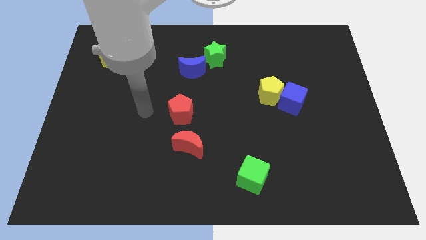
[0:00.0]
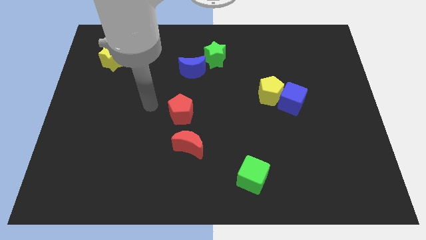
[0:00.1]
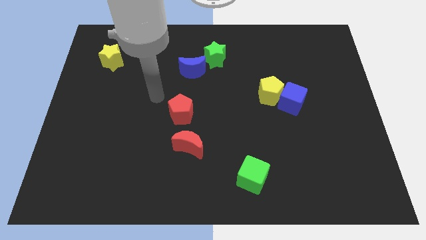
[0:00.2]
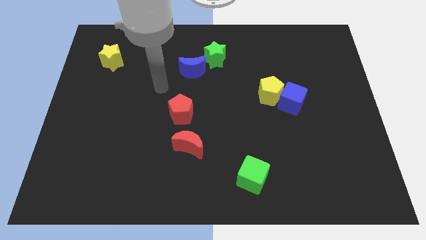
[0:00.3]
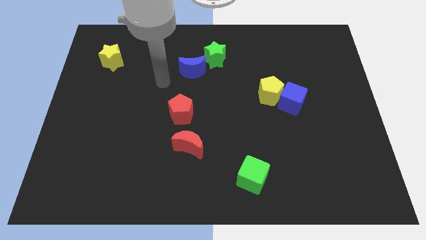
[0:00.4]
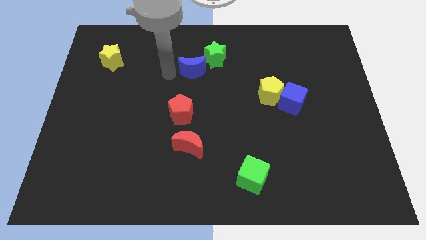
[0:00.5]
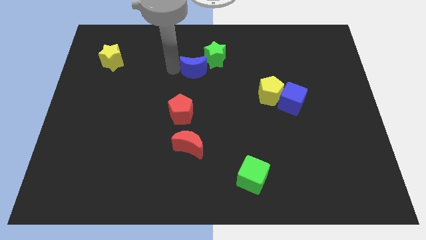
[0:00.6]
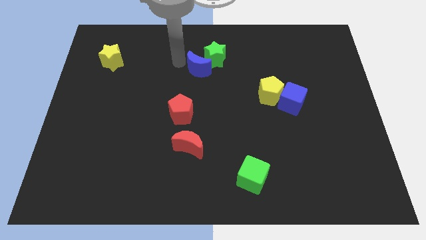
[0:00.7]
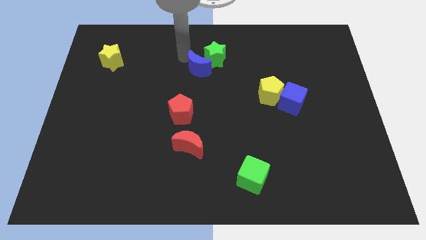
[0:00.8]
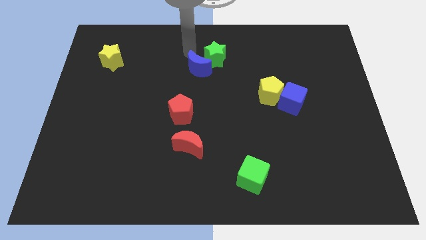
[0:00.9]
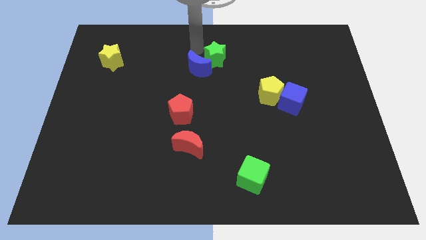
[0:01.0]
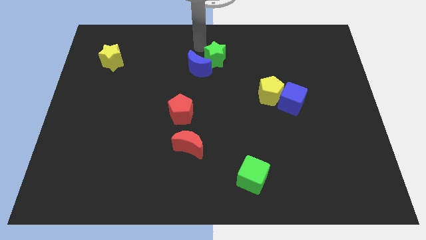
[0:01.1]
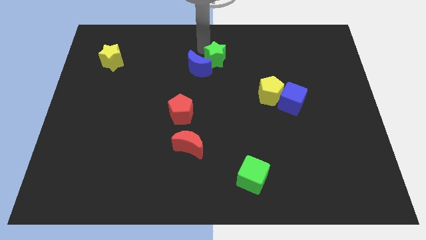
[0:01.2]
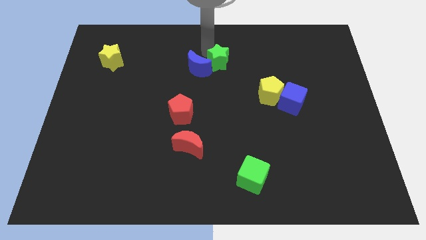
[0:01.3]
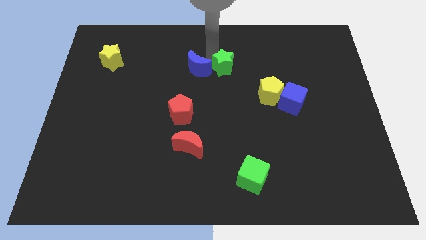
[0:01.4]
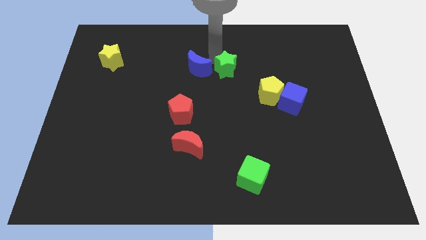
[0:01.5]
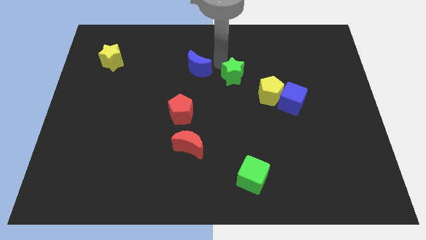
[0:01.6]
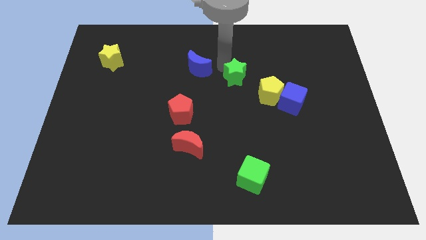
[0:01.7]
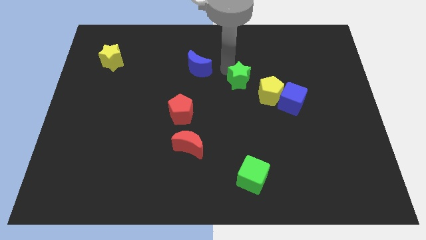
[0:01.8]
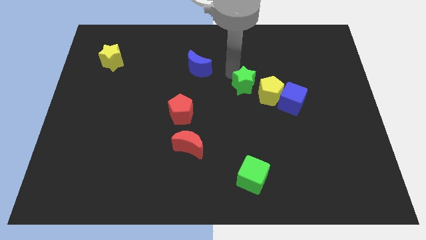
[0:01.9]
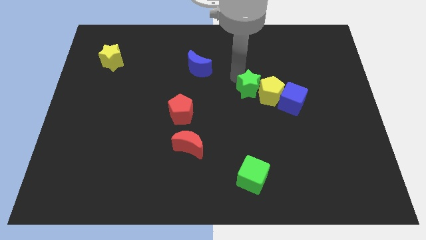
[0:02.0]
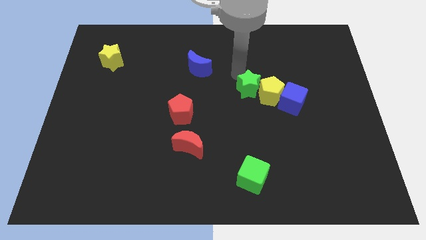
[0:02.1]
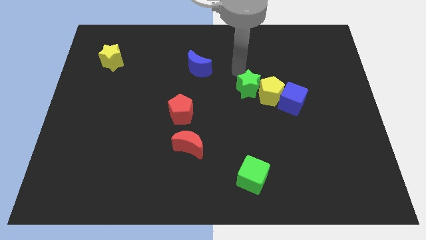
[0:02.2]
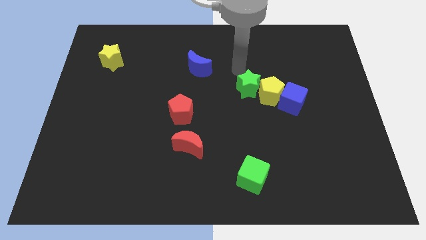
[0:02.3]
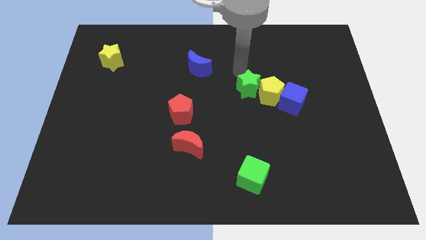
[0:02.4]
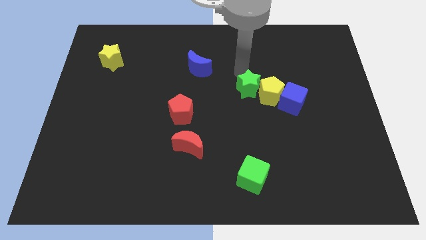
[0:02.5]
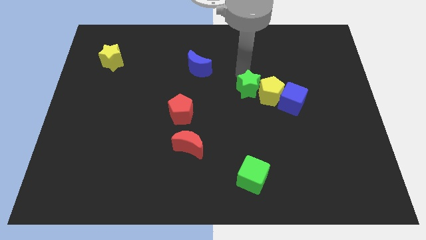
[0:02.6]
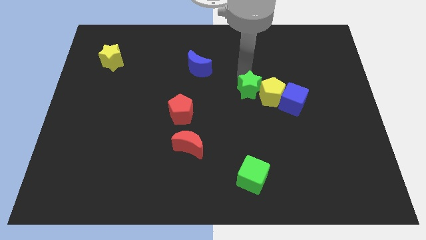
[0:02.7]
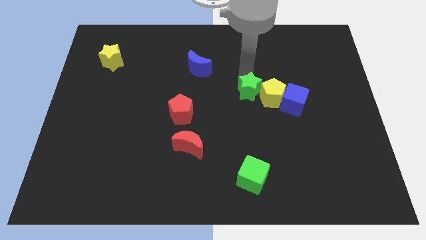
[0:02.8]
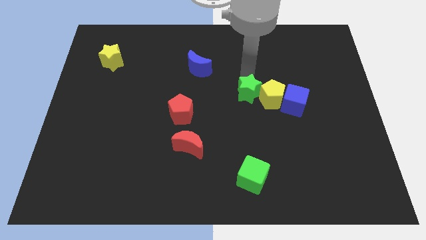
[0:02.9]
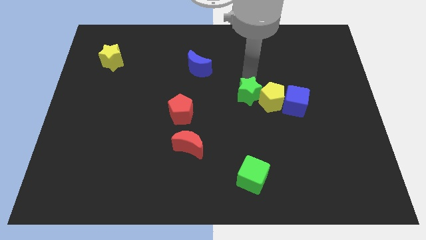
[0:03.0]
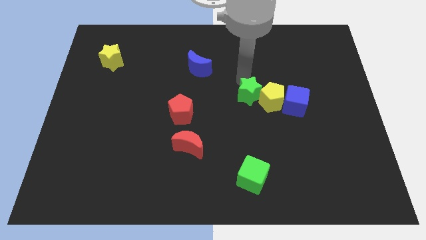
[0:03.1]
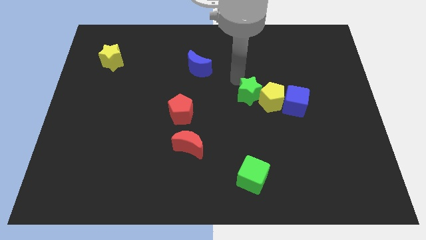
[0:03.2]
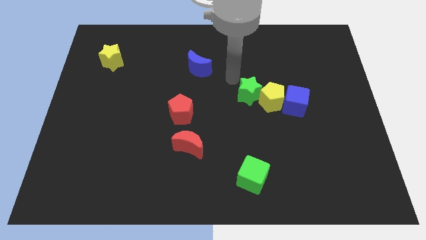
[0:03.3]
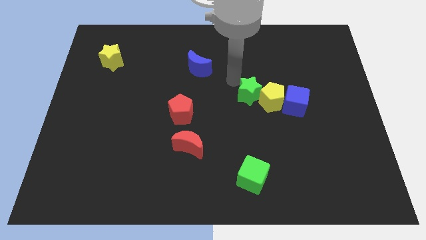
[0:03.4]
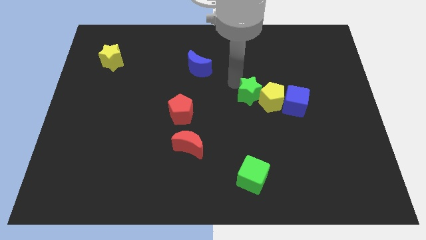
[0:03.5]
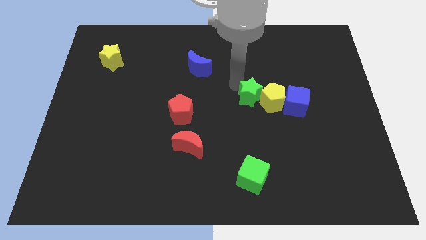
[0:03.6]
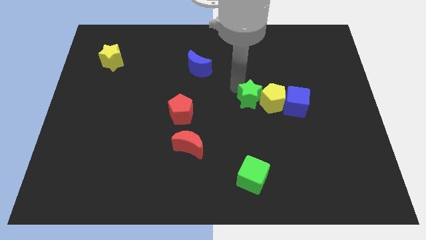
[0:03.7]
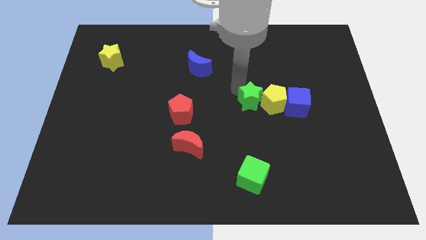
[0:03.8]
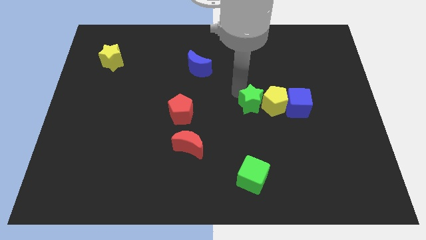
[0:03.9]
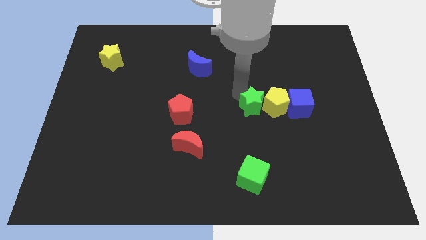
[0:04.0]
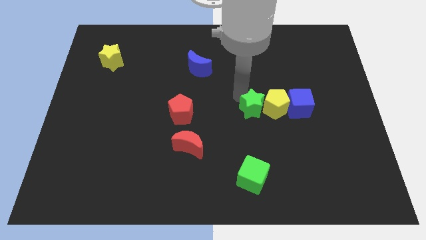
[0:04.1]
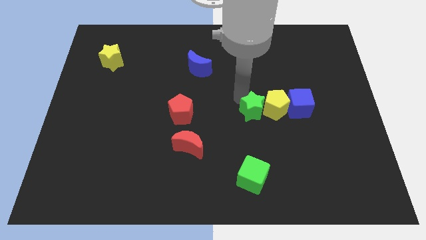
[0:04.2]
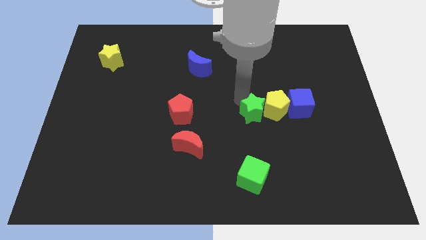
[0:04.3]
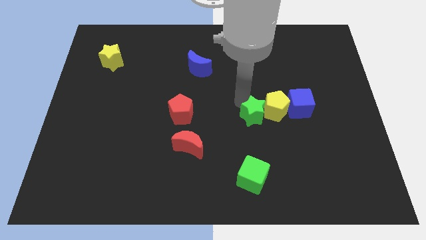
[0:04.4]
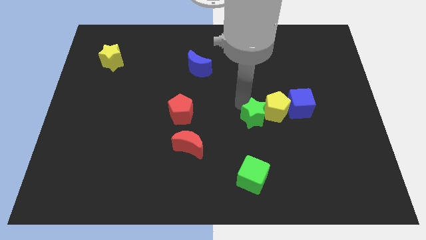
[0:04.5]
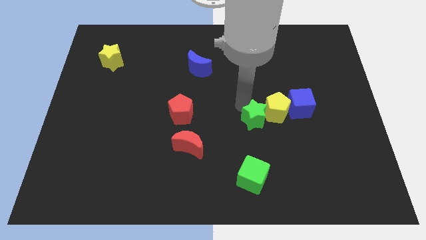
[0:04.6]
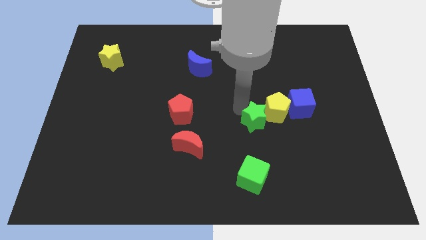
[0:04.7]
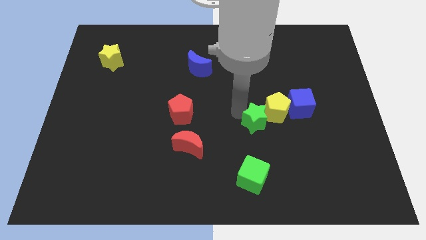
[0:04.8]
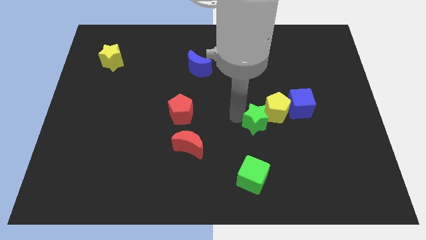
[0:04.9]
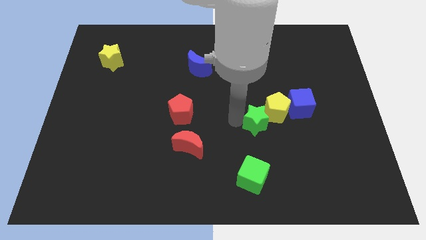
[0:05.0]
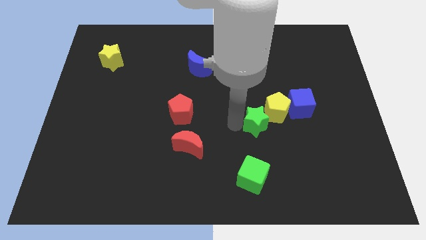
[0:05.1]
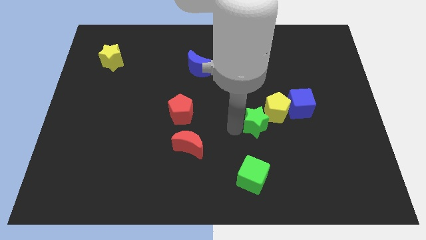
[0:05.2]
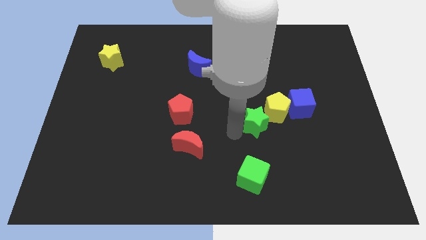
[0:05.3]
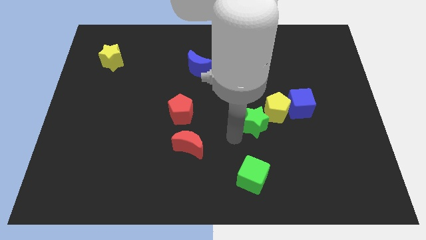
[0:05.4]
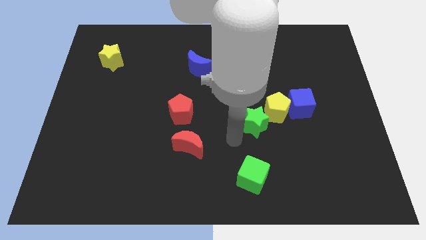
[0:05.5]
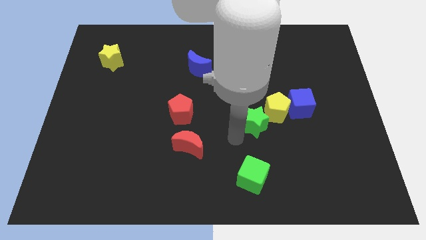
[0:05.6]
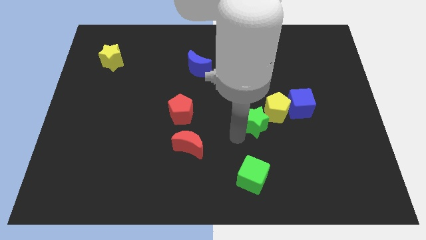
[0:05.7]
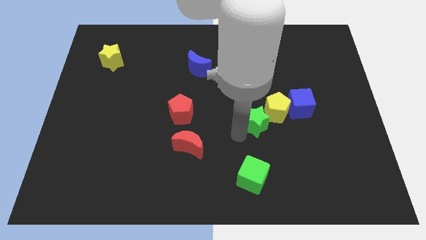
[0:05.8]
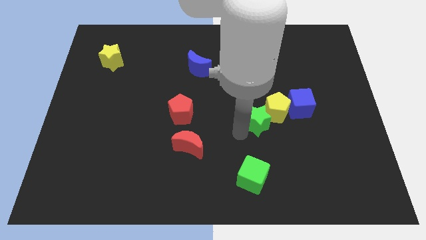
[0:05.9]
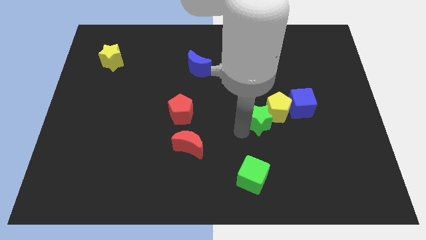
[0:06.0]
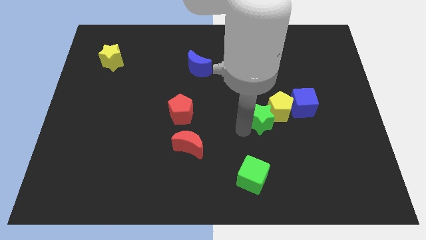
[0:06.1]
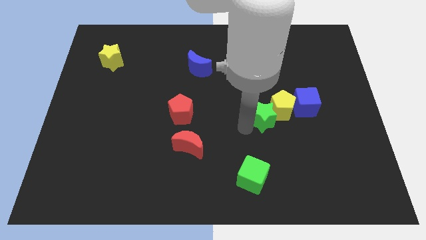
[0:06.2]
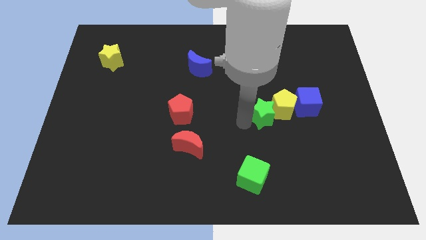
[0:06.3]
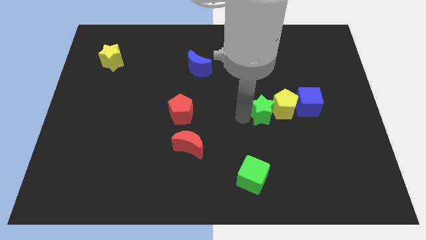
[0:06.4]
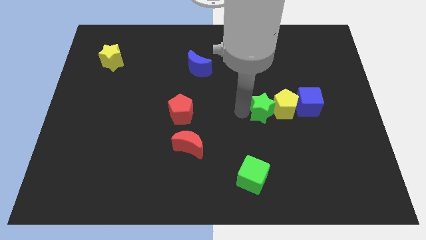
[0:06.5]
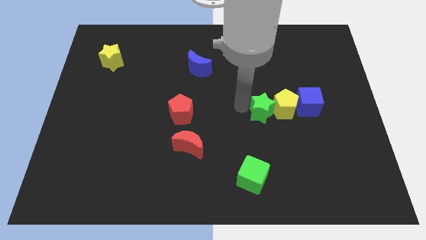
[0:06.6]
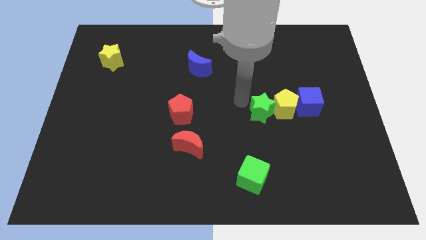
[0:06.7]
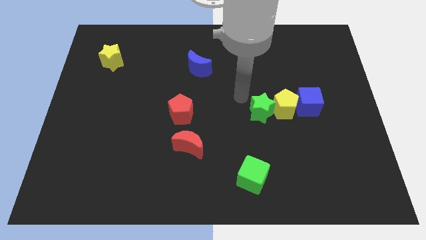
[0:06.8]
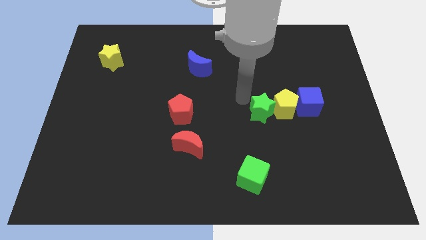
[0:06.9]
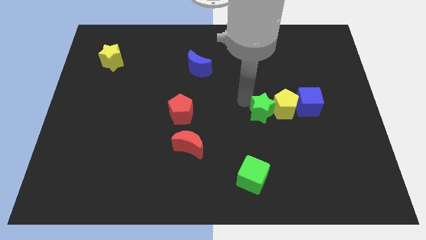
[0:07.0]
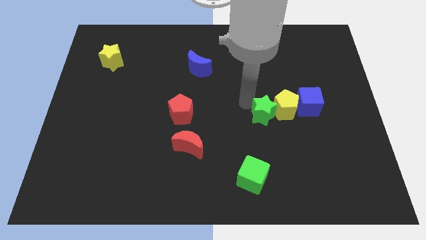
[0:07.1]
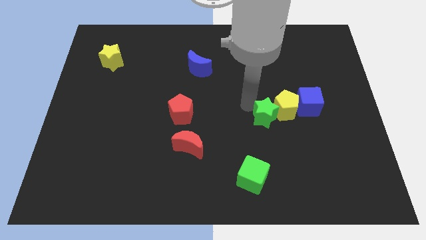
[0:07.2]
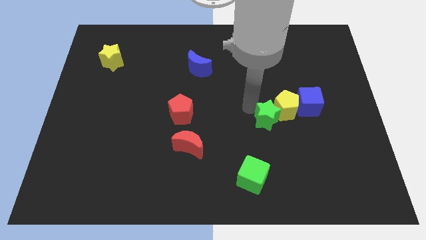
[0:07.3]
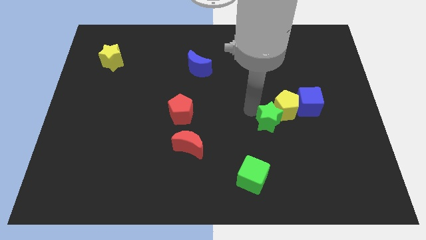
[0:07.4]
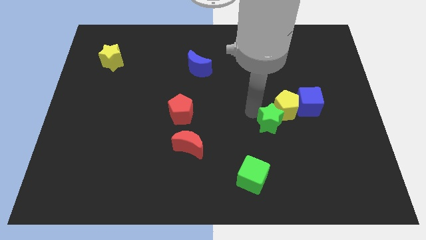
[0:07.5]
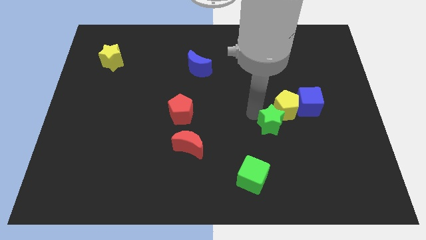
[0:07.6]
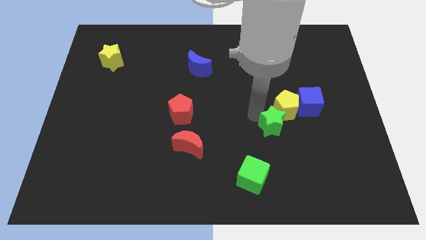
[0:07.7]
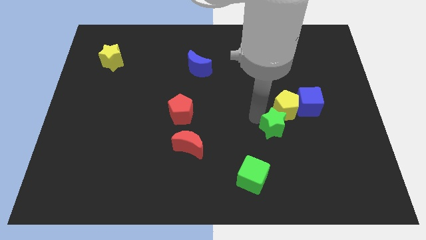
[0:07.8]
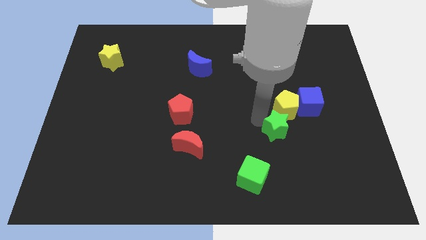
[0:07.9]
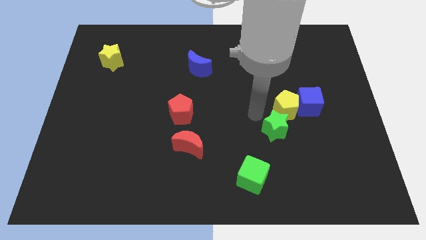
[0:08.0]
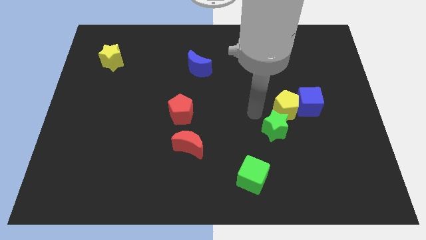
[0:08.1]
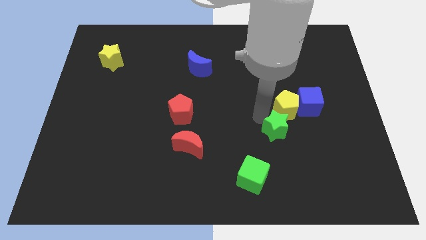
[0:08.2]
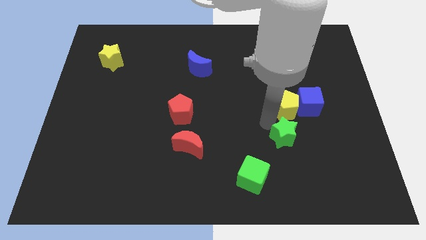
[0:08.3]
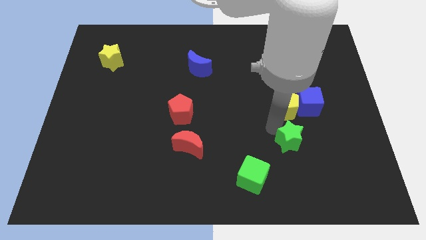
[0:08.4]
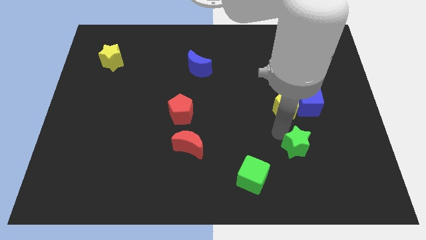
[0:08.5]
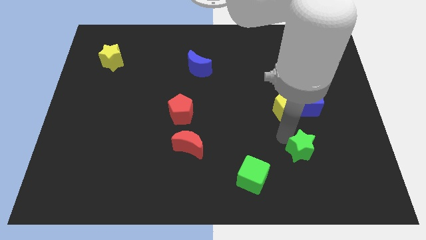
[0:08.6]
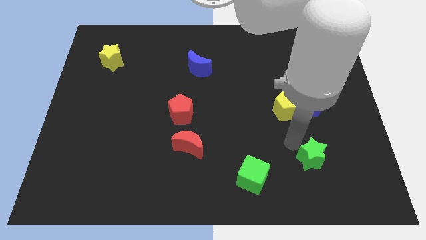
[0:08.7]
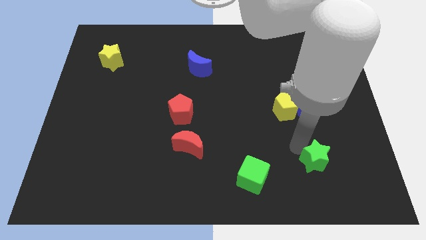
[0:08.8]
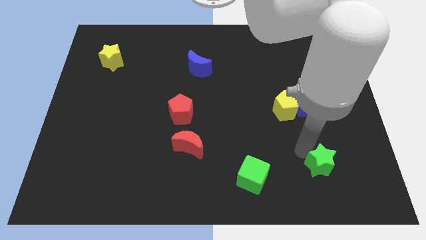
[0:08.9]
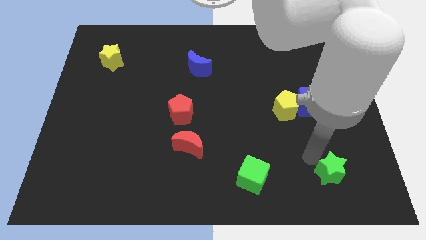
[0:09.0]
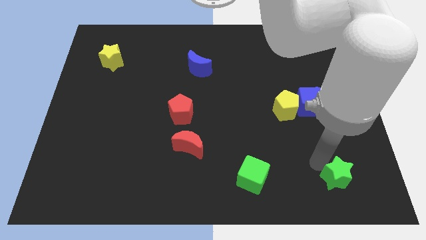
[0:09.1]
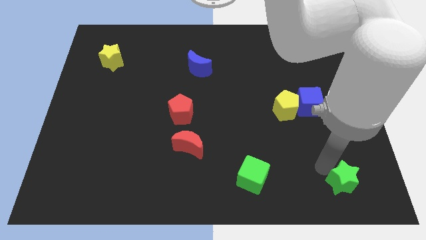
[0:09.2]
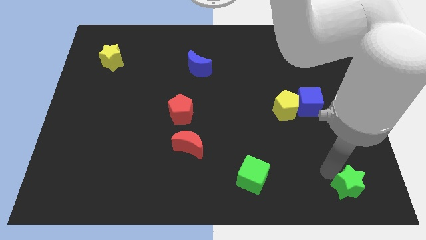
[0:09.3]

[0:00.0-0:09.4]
slide the green star to the bottom right of the board
